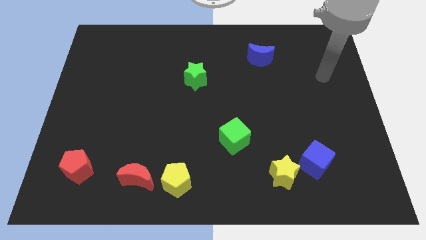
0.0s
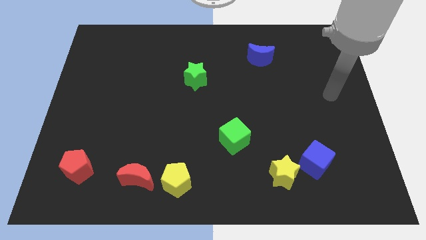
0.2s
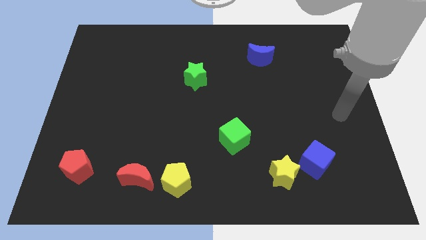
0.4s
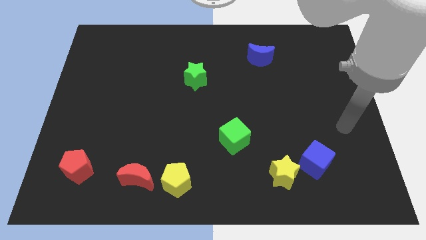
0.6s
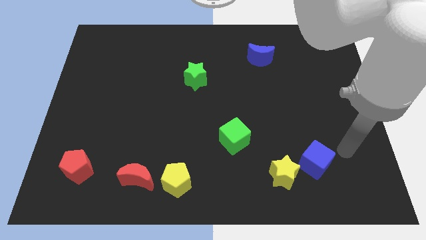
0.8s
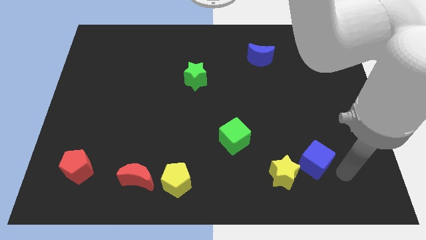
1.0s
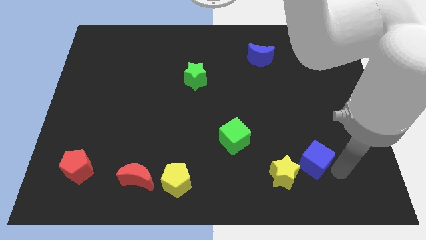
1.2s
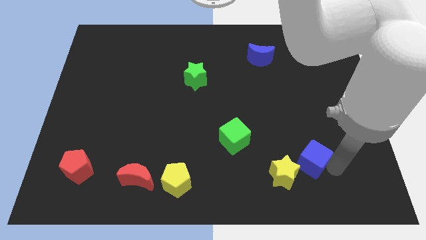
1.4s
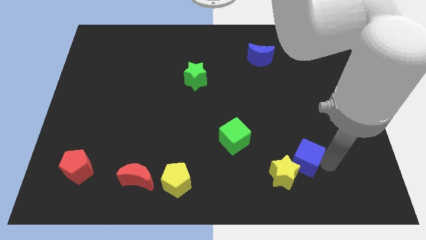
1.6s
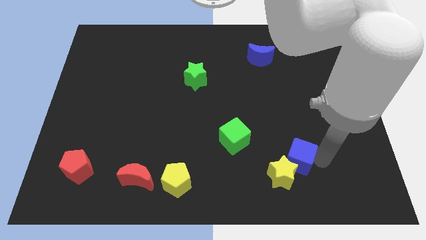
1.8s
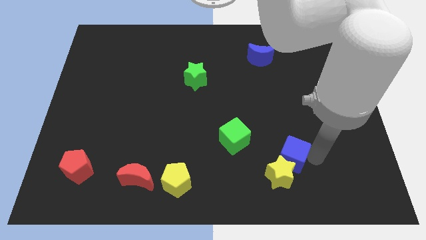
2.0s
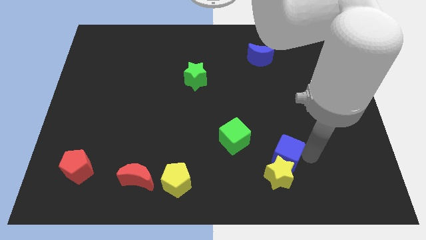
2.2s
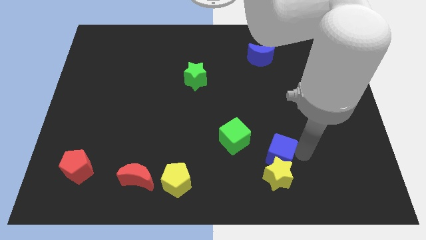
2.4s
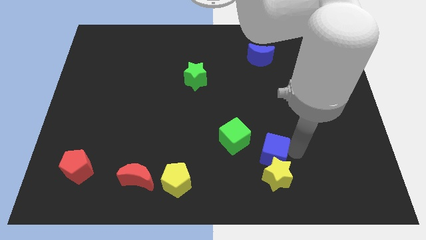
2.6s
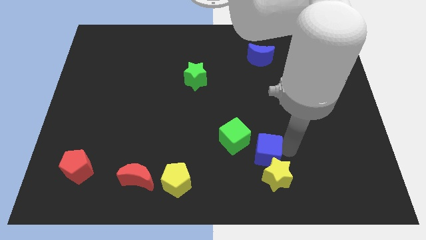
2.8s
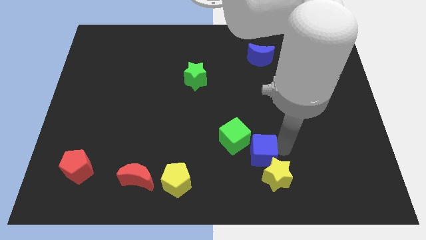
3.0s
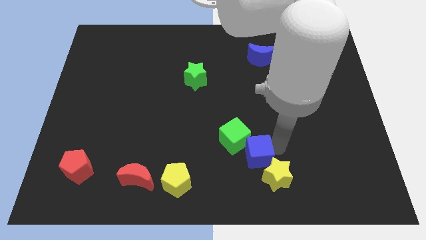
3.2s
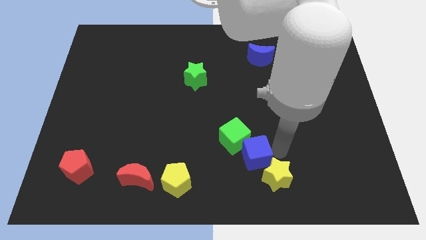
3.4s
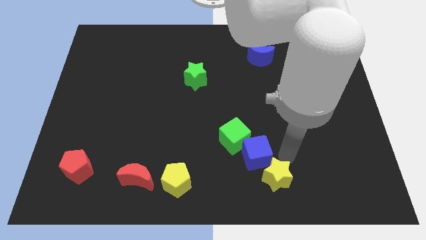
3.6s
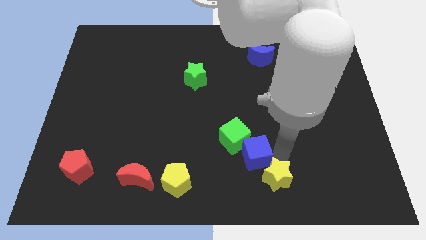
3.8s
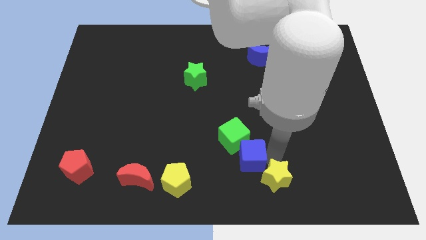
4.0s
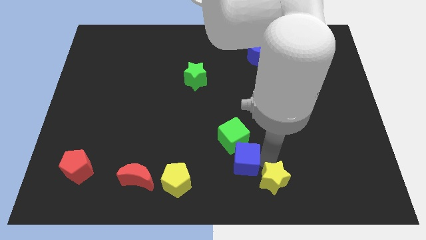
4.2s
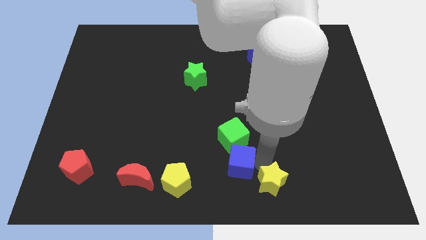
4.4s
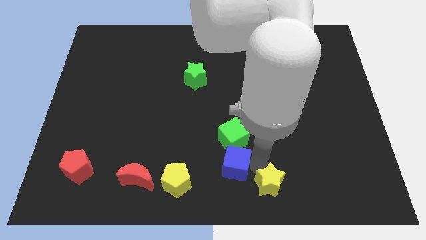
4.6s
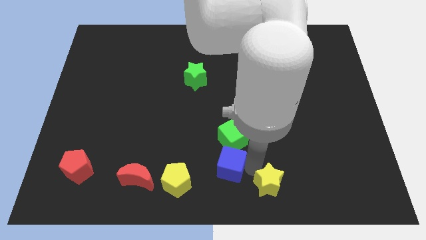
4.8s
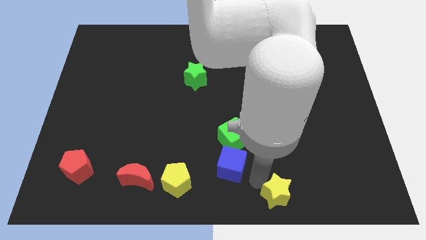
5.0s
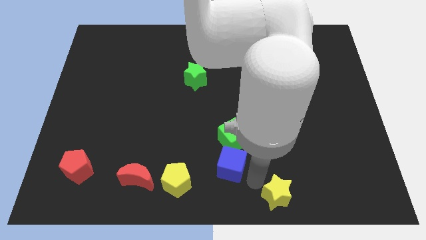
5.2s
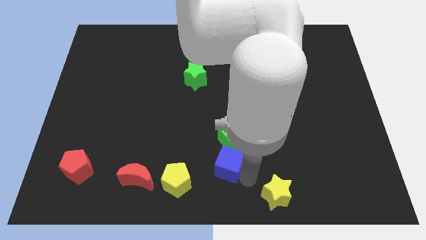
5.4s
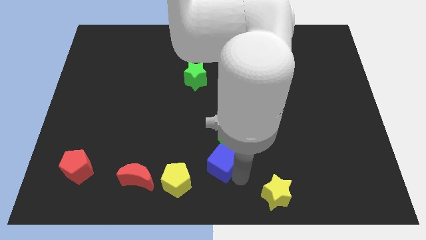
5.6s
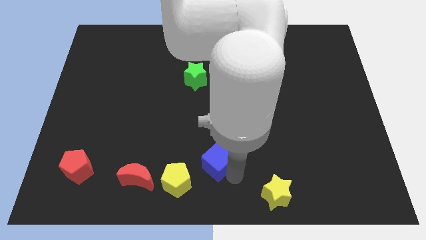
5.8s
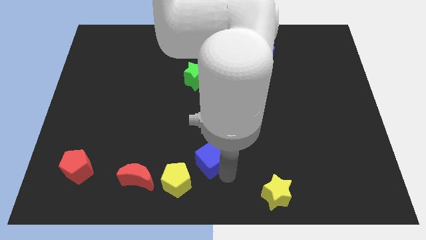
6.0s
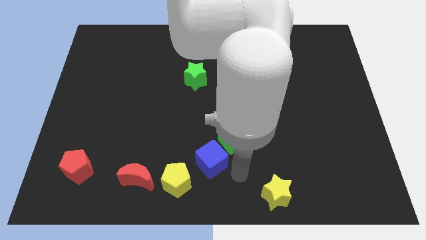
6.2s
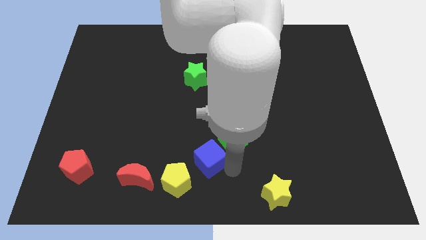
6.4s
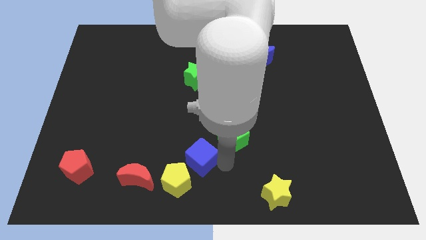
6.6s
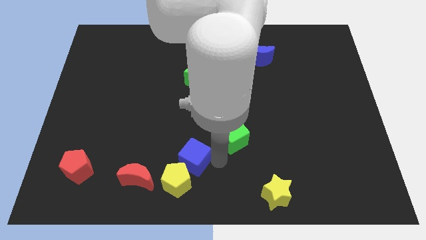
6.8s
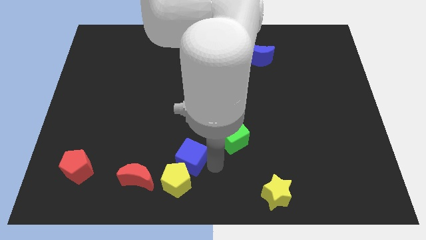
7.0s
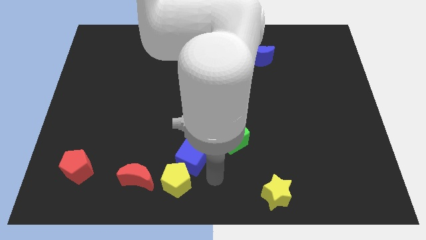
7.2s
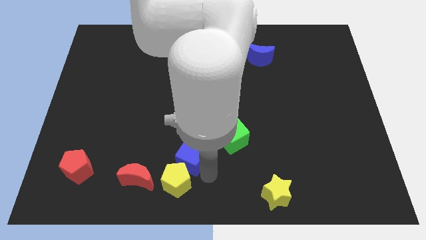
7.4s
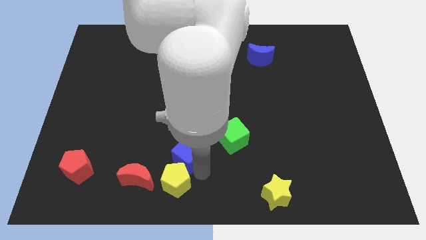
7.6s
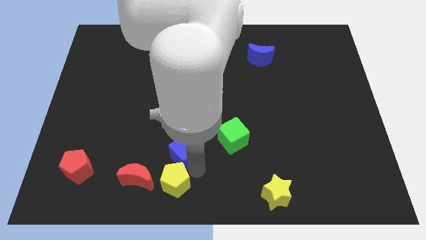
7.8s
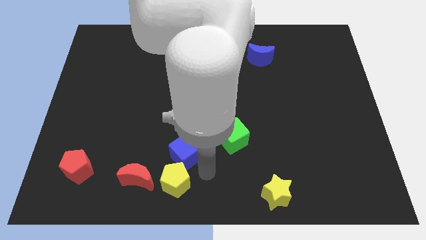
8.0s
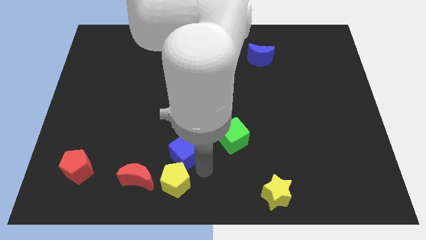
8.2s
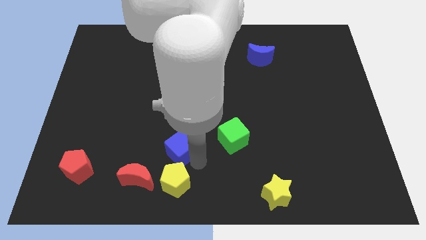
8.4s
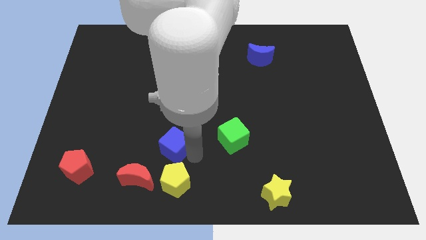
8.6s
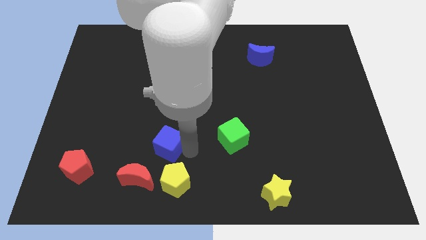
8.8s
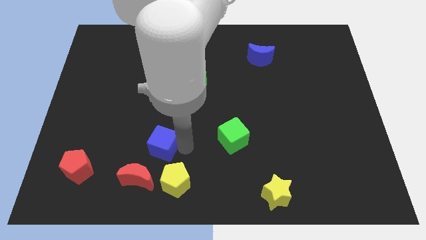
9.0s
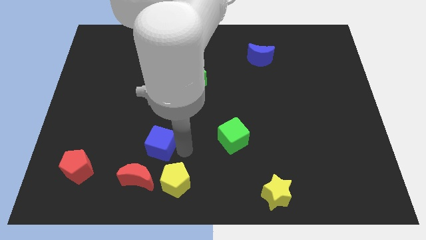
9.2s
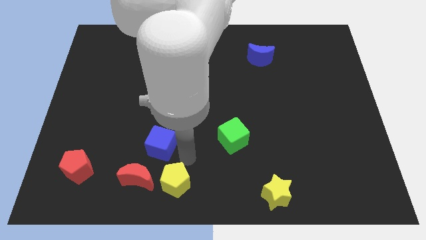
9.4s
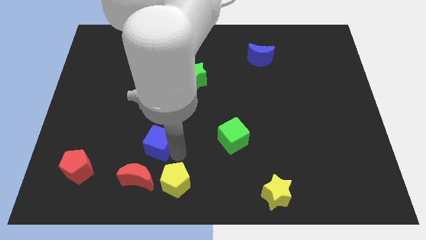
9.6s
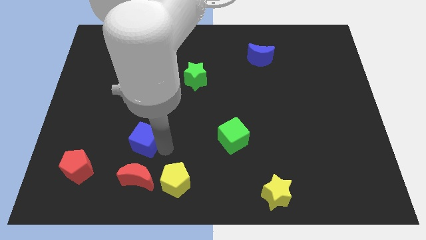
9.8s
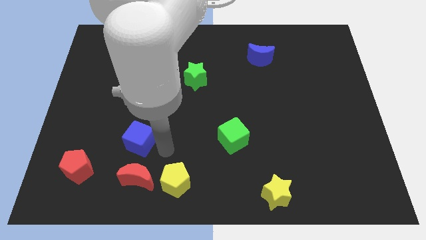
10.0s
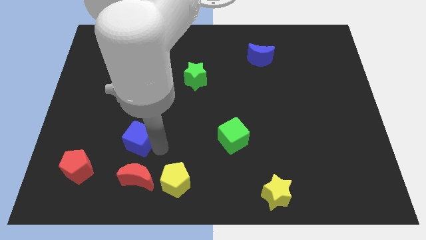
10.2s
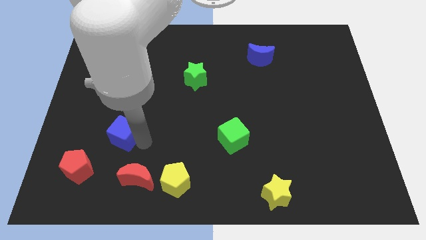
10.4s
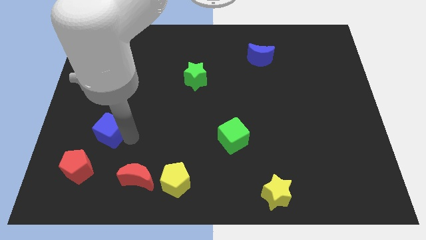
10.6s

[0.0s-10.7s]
move the blue cube to the top side of the red pentagon

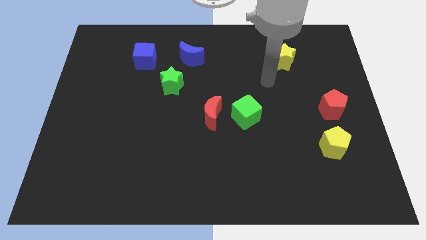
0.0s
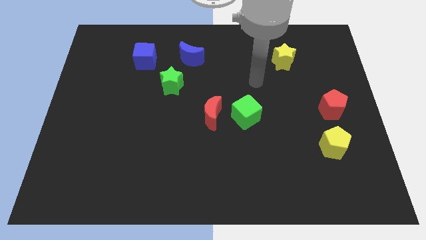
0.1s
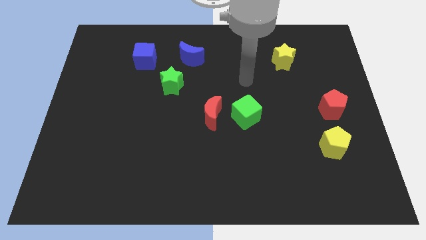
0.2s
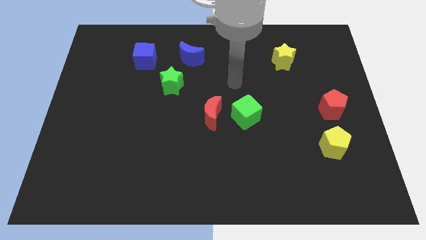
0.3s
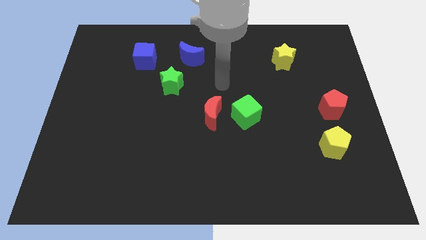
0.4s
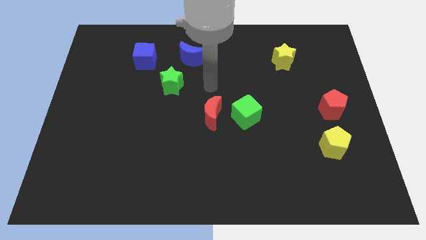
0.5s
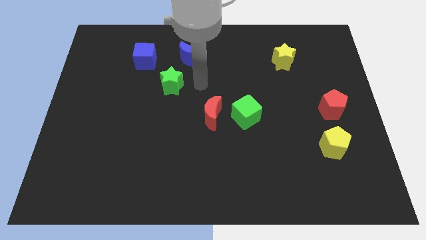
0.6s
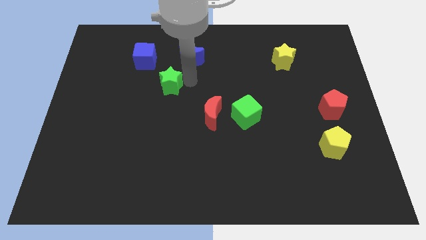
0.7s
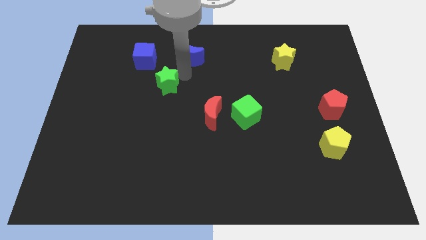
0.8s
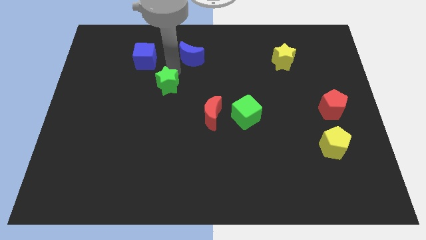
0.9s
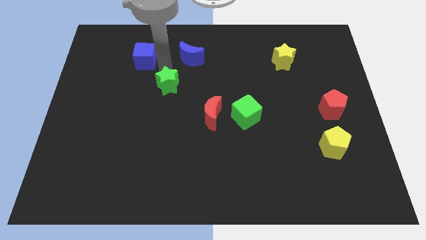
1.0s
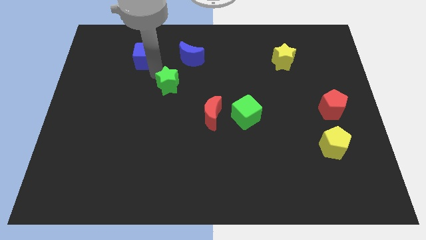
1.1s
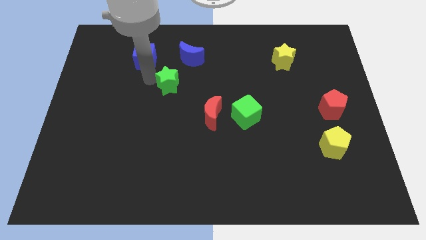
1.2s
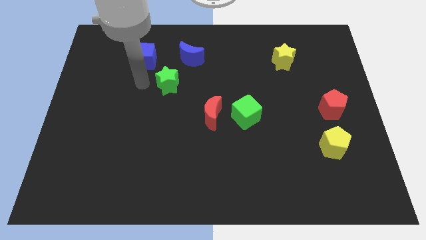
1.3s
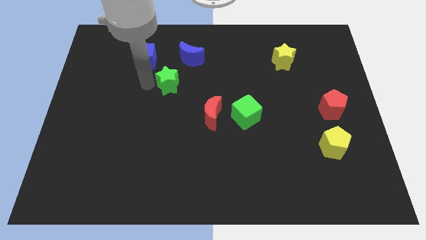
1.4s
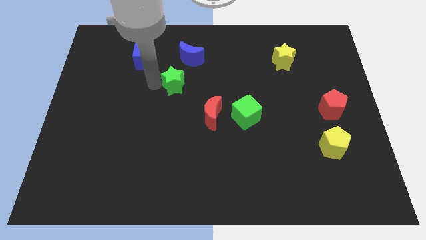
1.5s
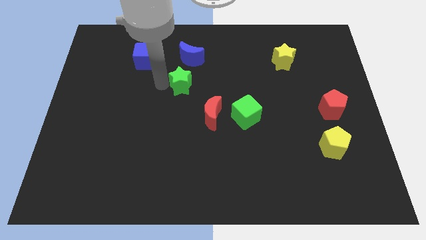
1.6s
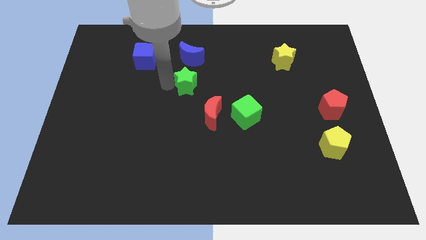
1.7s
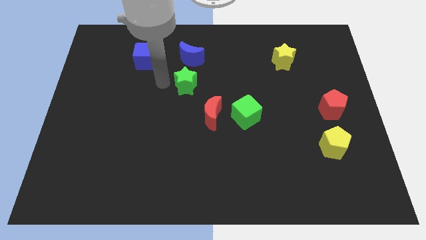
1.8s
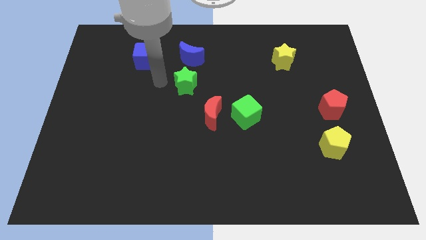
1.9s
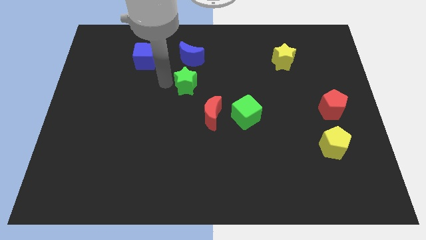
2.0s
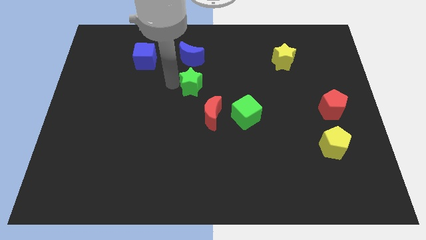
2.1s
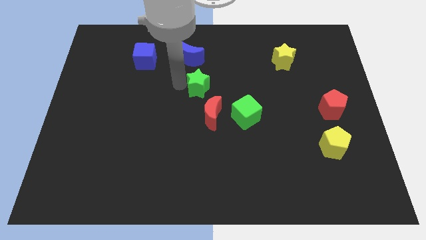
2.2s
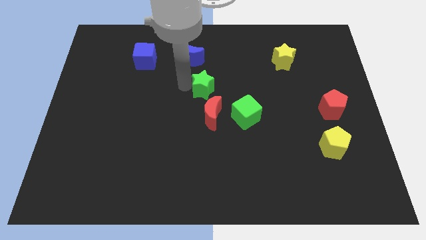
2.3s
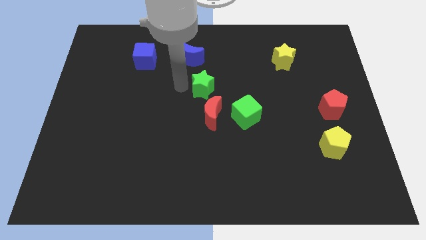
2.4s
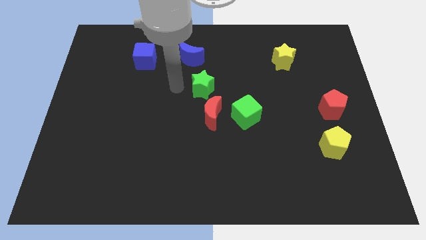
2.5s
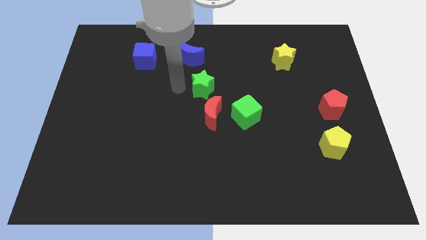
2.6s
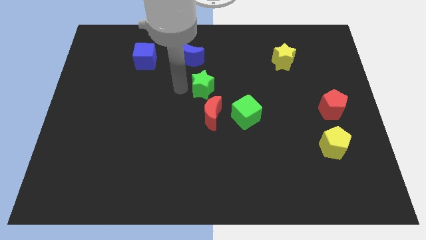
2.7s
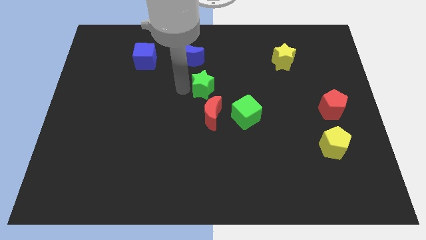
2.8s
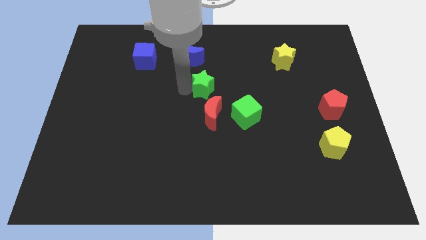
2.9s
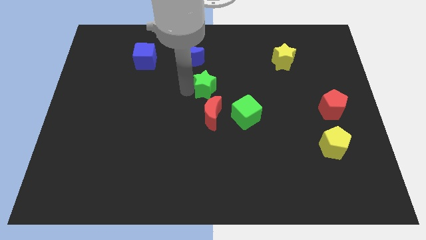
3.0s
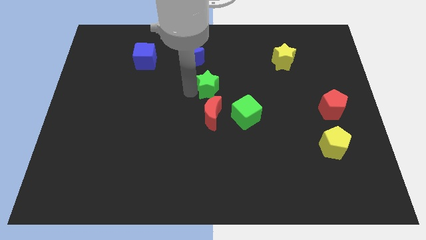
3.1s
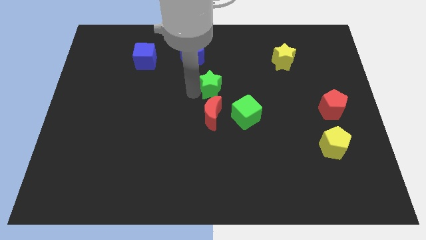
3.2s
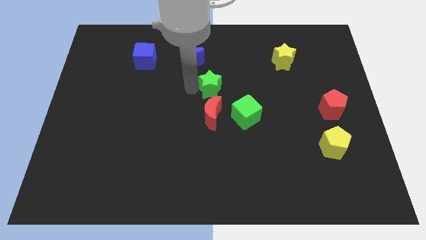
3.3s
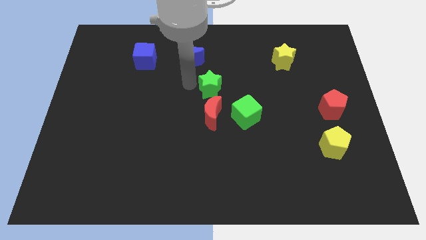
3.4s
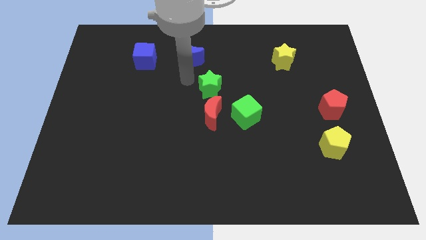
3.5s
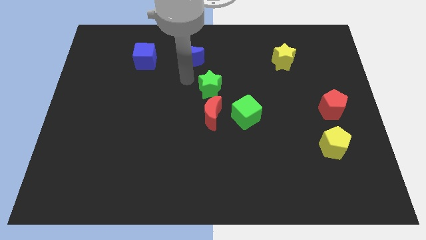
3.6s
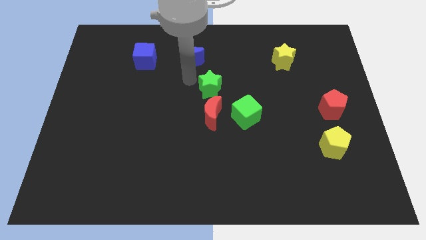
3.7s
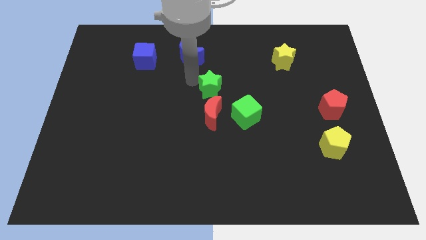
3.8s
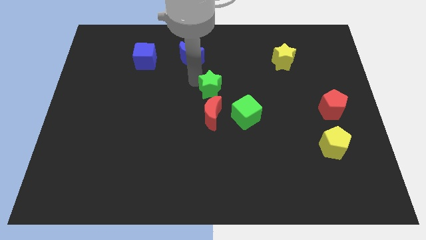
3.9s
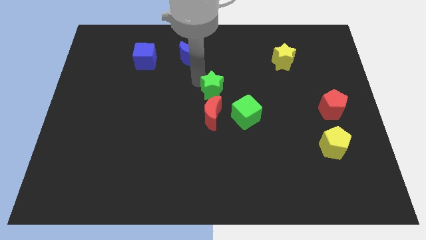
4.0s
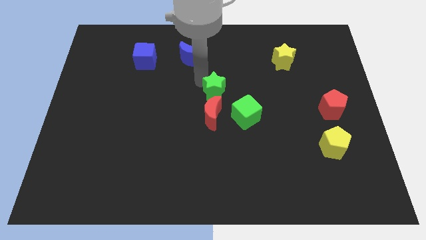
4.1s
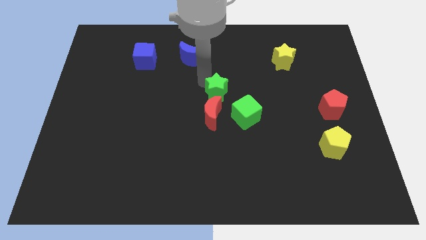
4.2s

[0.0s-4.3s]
put the green star diagonally up and to the right of the red moon
